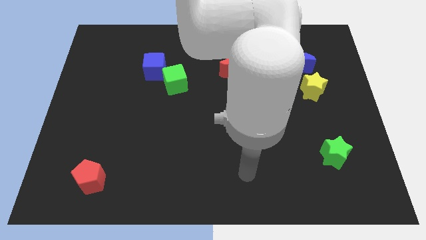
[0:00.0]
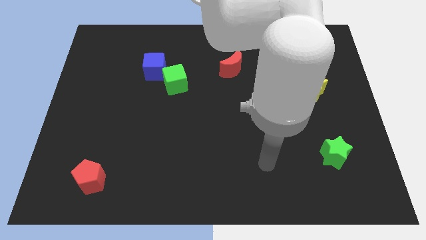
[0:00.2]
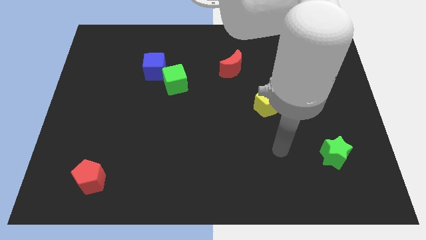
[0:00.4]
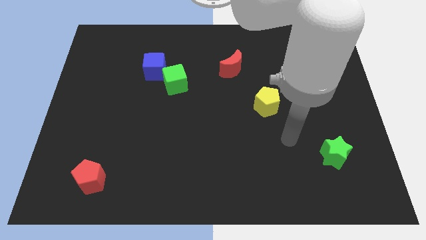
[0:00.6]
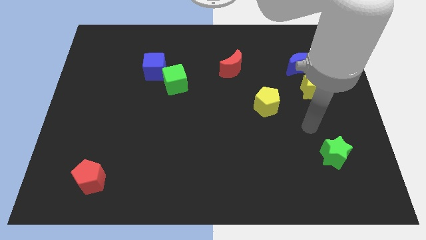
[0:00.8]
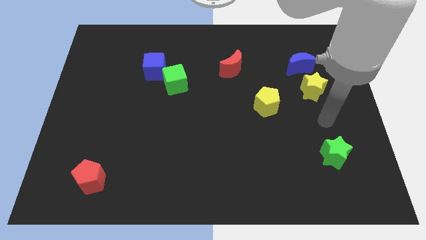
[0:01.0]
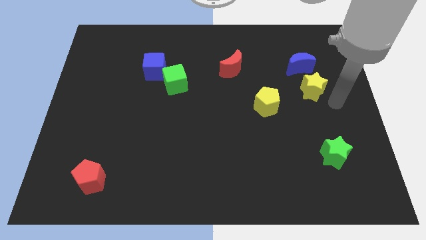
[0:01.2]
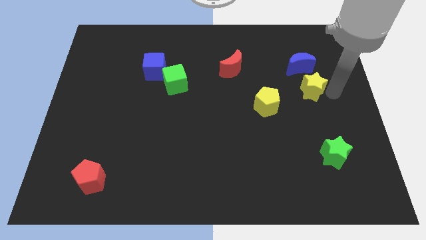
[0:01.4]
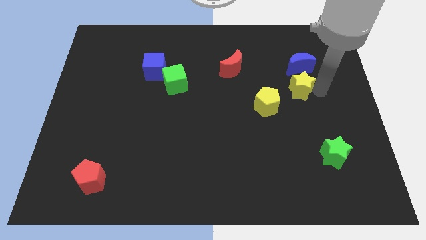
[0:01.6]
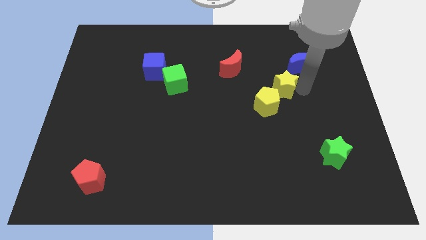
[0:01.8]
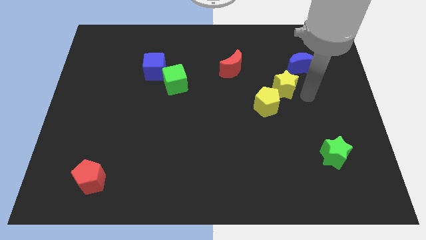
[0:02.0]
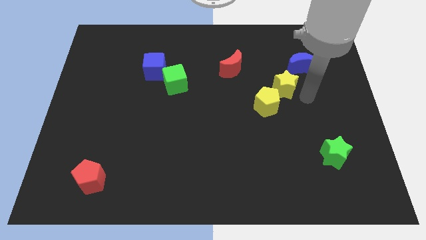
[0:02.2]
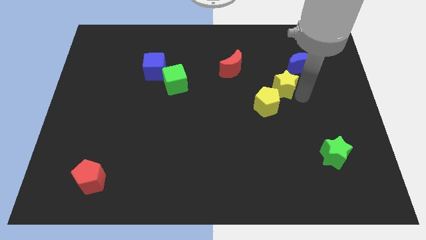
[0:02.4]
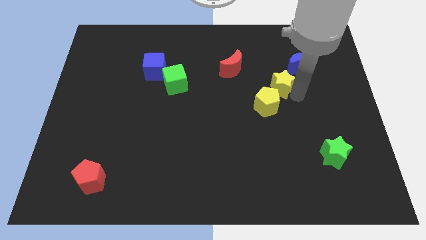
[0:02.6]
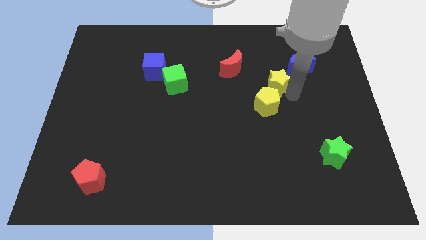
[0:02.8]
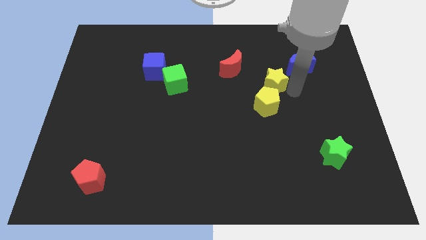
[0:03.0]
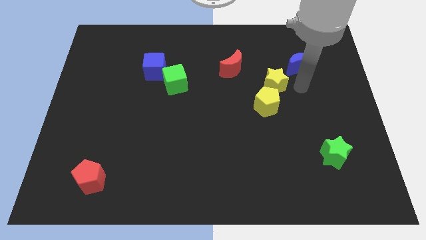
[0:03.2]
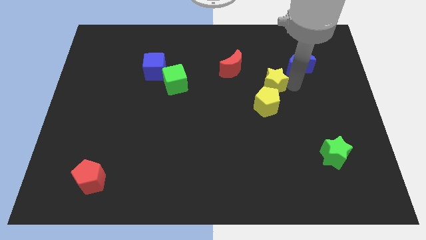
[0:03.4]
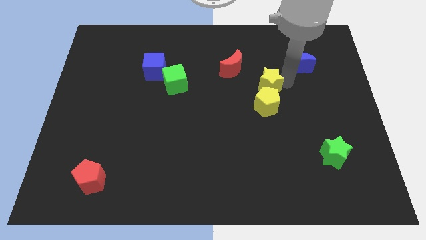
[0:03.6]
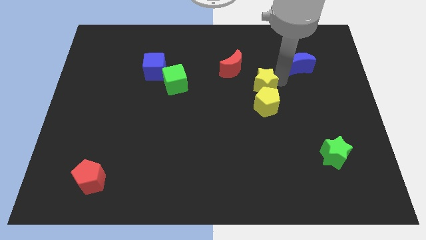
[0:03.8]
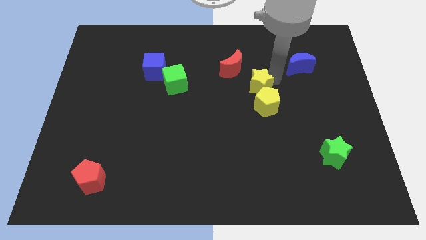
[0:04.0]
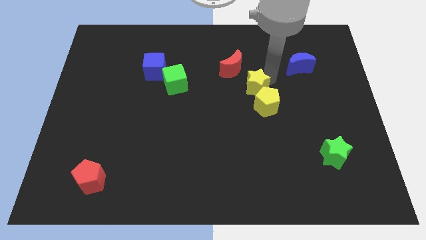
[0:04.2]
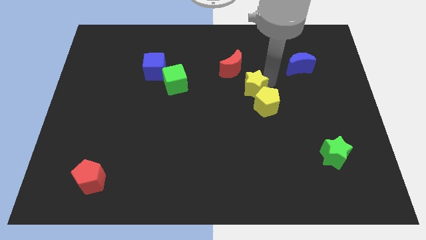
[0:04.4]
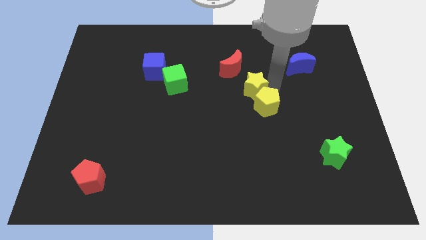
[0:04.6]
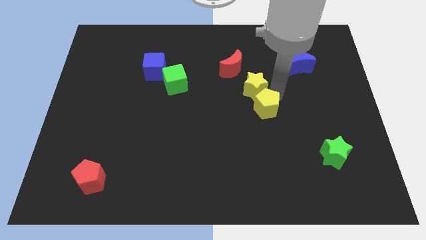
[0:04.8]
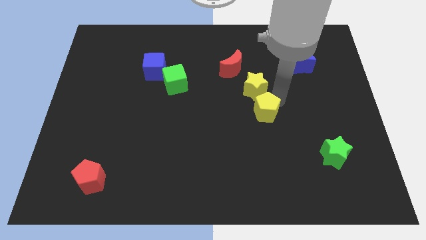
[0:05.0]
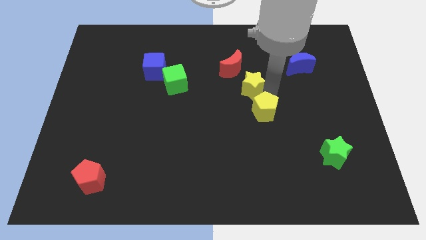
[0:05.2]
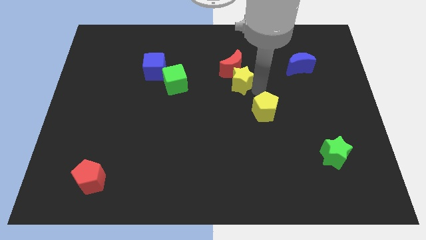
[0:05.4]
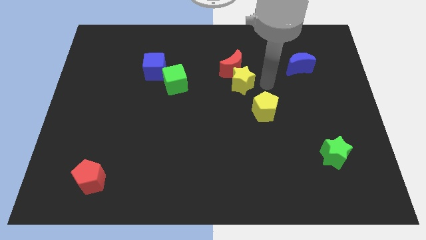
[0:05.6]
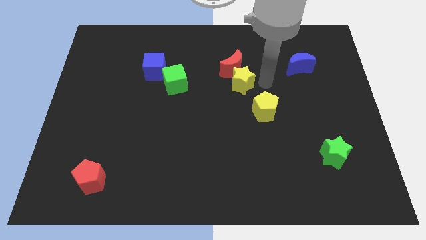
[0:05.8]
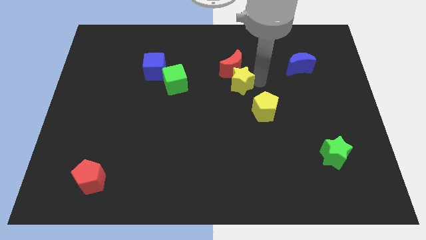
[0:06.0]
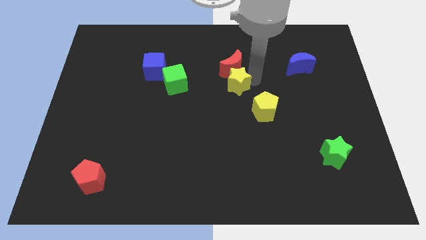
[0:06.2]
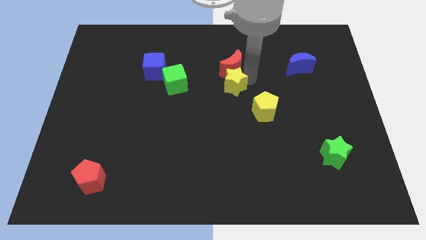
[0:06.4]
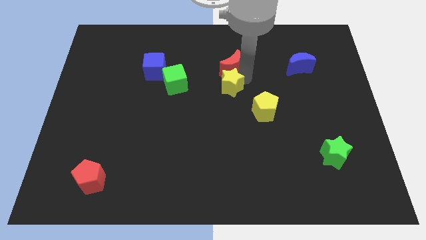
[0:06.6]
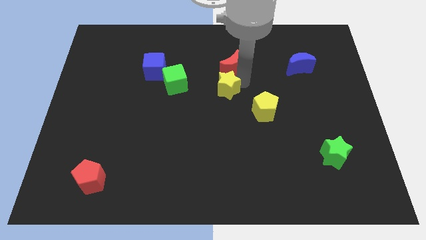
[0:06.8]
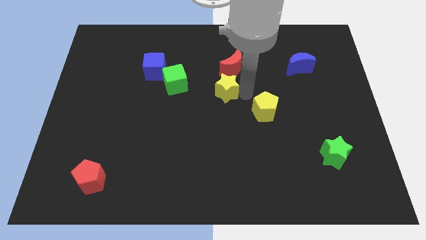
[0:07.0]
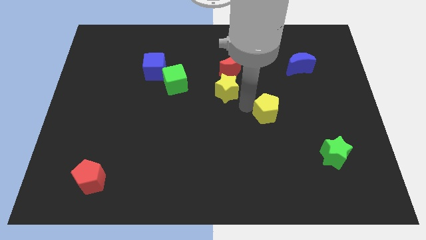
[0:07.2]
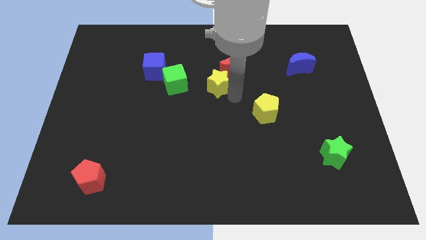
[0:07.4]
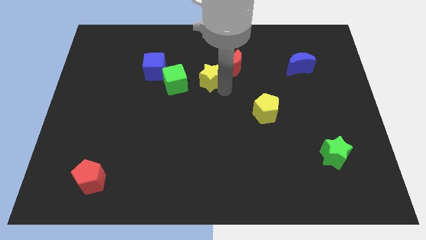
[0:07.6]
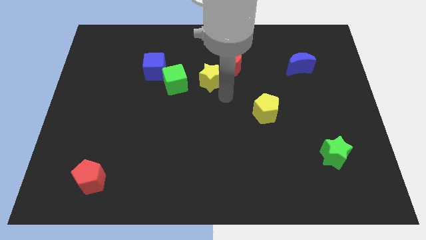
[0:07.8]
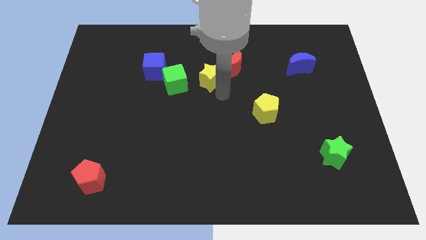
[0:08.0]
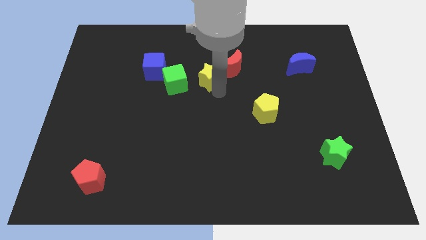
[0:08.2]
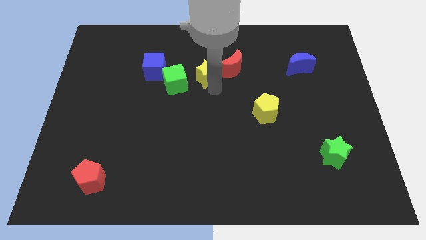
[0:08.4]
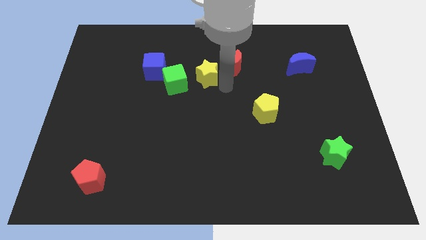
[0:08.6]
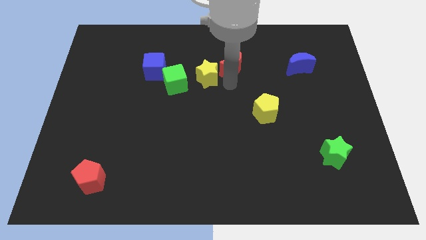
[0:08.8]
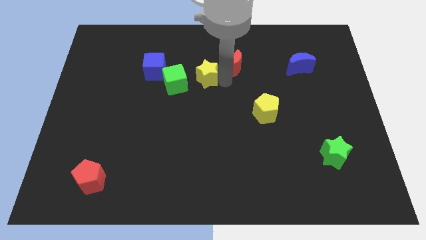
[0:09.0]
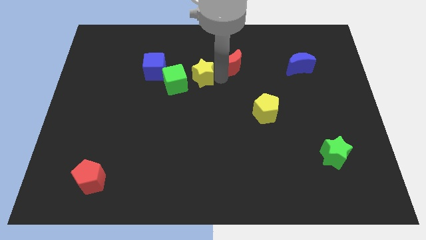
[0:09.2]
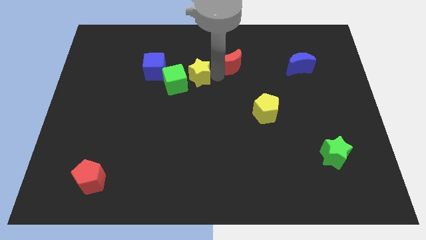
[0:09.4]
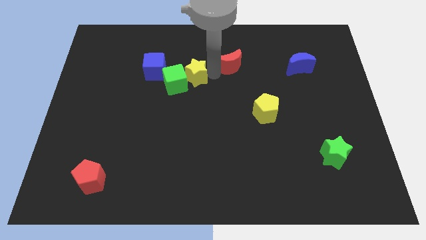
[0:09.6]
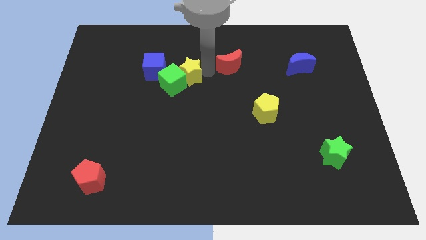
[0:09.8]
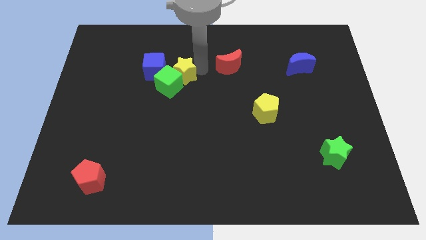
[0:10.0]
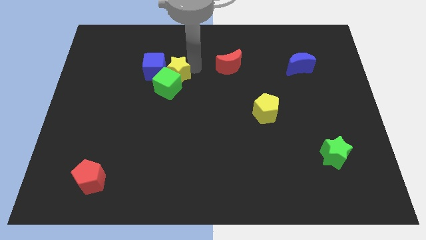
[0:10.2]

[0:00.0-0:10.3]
move the yellow star next to the blue cube

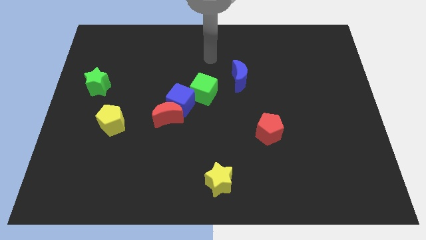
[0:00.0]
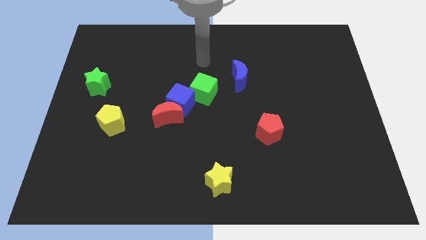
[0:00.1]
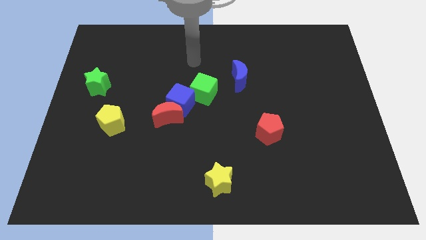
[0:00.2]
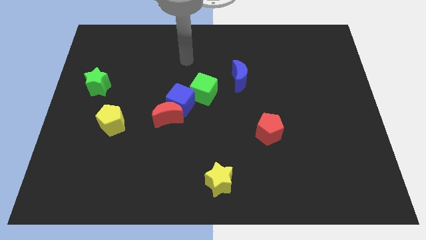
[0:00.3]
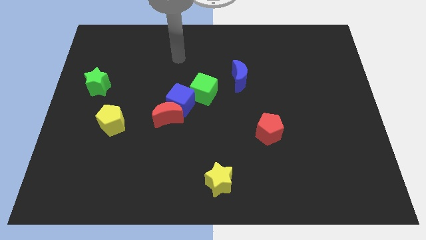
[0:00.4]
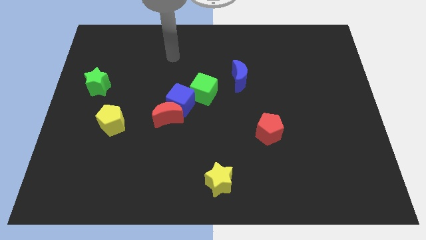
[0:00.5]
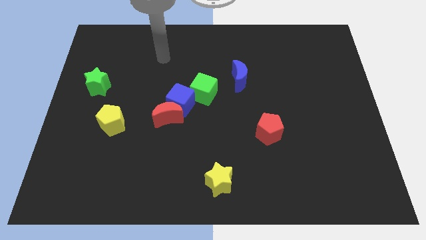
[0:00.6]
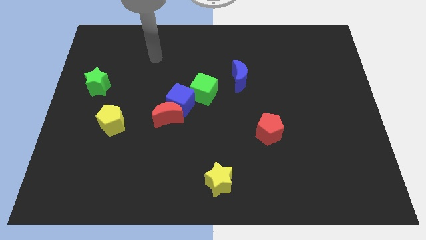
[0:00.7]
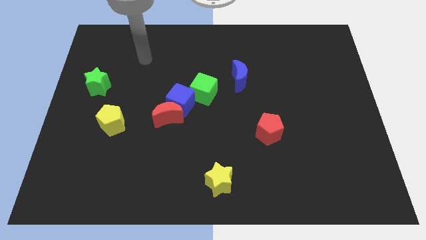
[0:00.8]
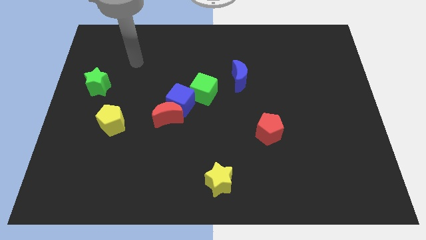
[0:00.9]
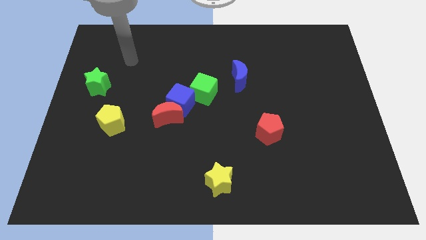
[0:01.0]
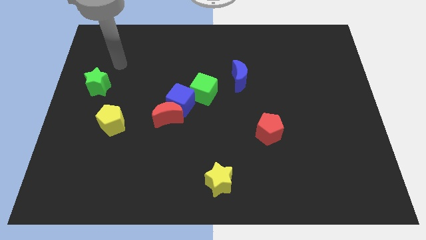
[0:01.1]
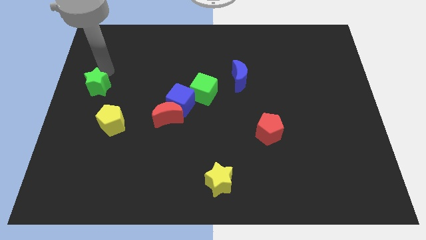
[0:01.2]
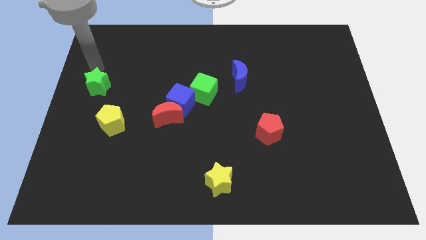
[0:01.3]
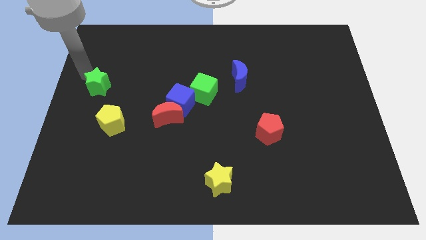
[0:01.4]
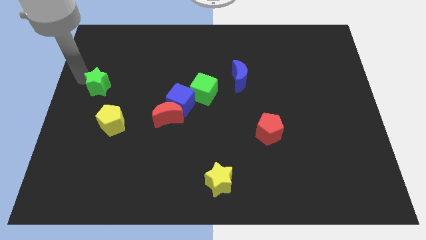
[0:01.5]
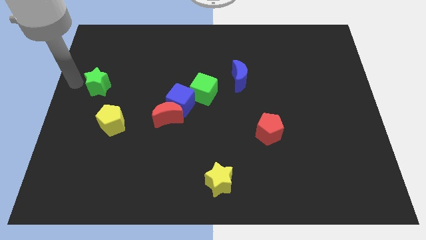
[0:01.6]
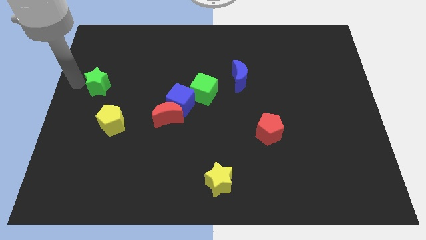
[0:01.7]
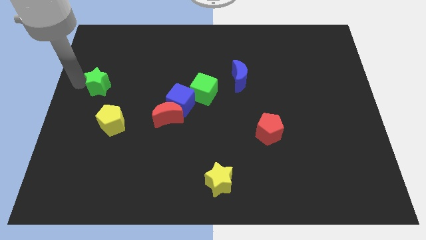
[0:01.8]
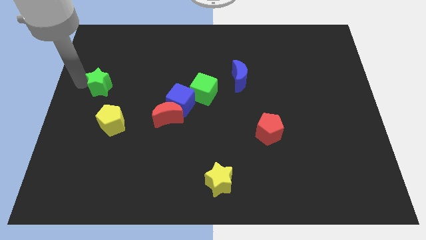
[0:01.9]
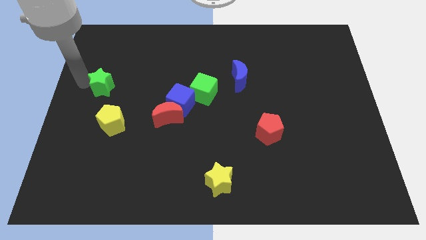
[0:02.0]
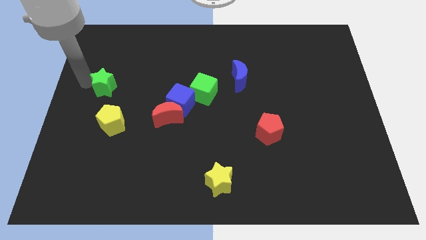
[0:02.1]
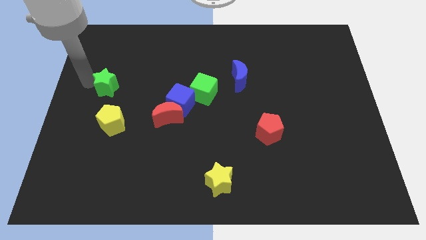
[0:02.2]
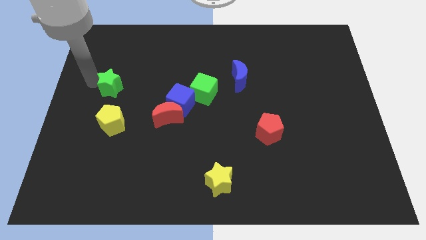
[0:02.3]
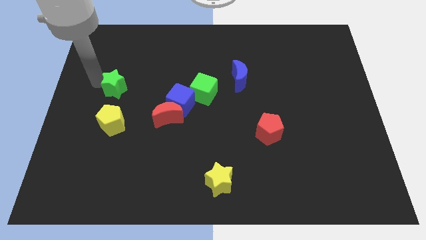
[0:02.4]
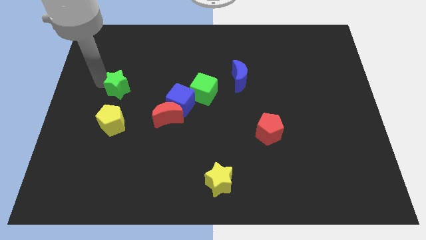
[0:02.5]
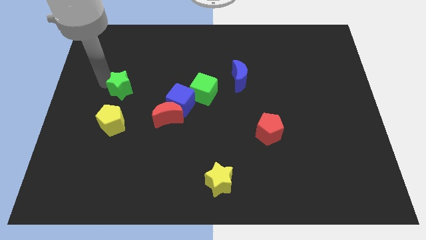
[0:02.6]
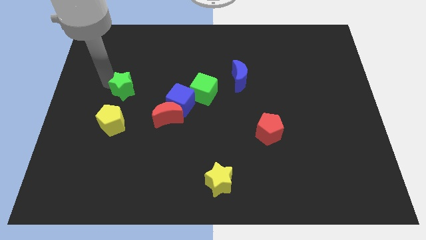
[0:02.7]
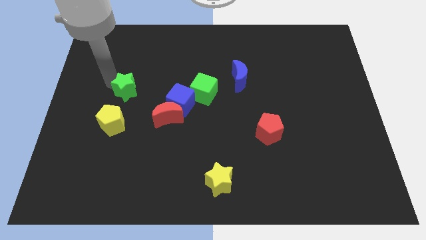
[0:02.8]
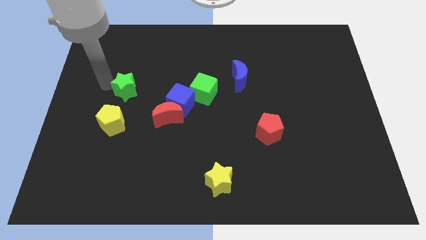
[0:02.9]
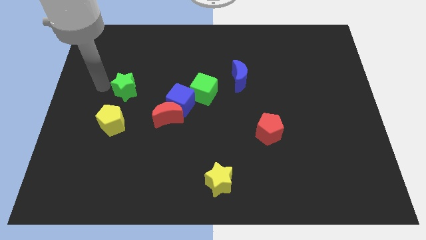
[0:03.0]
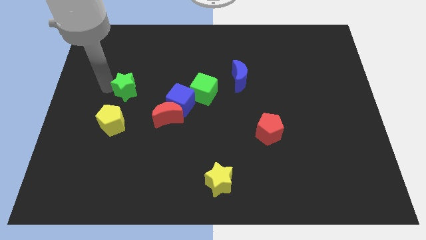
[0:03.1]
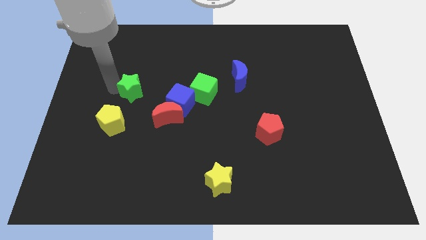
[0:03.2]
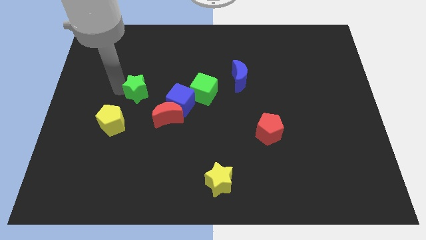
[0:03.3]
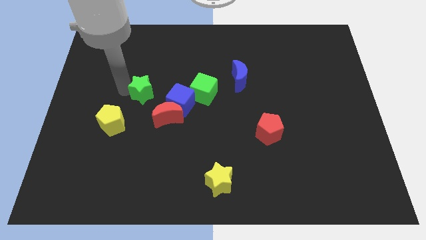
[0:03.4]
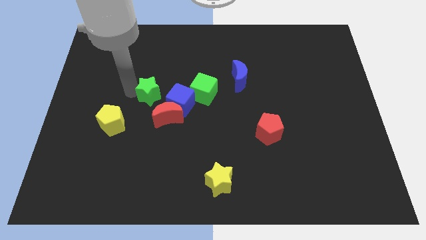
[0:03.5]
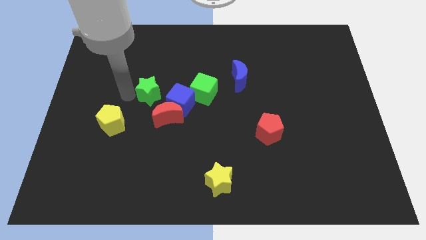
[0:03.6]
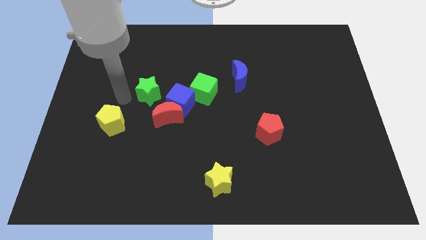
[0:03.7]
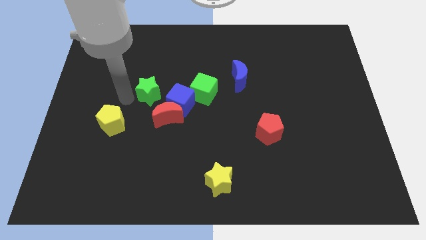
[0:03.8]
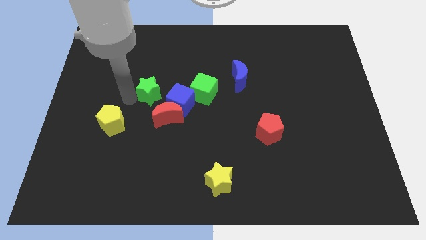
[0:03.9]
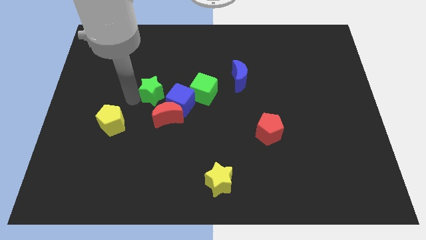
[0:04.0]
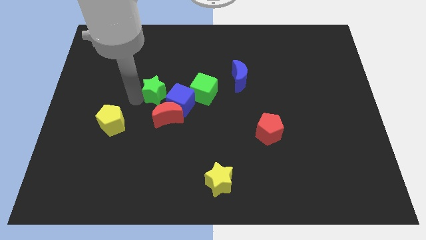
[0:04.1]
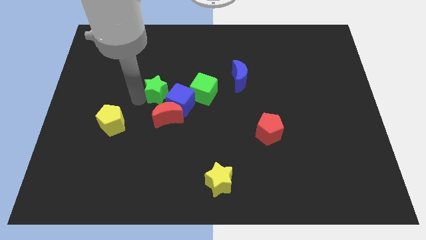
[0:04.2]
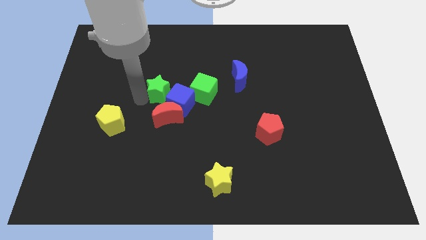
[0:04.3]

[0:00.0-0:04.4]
put the green star close to the blue cube
